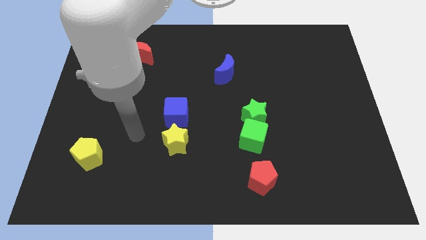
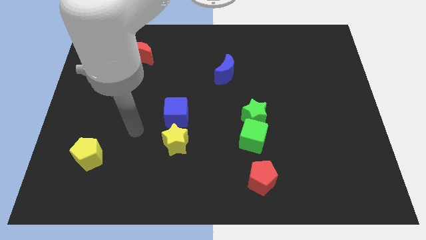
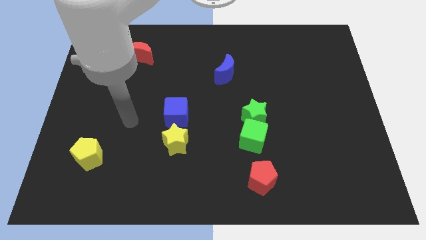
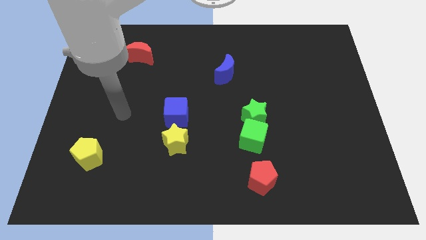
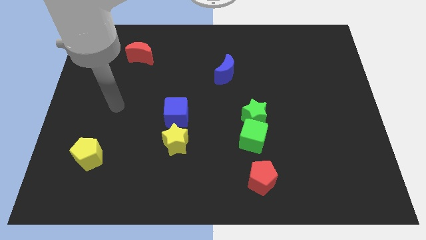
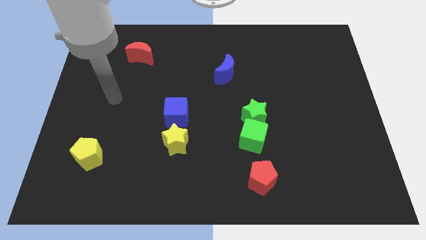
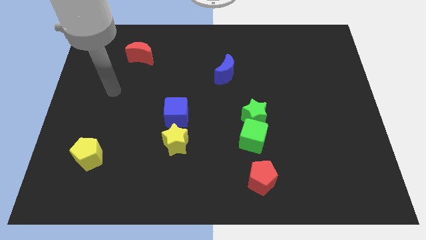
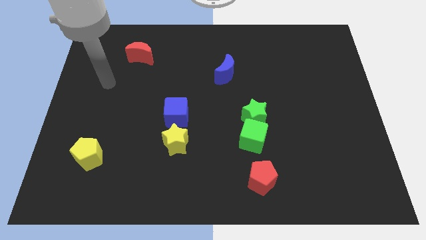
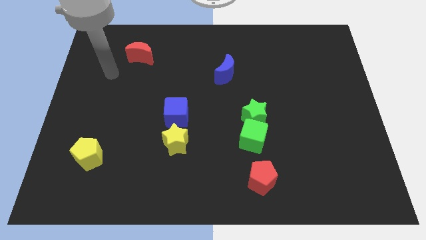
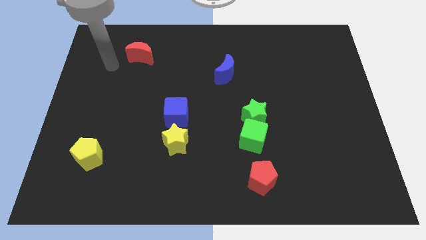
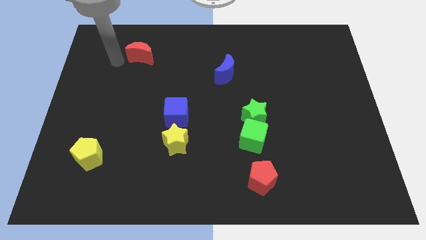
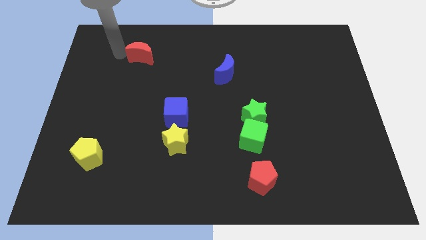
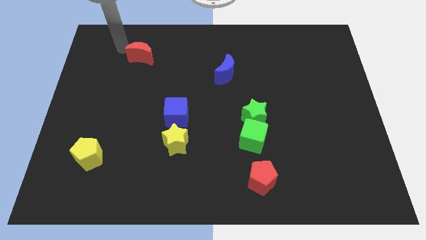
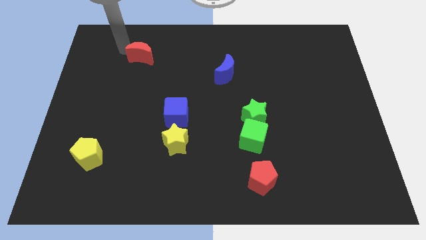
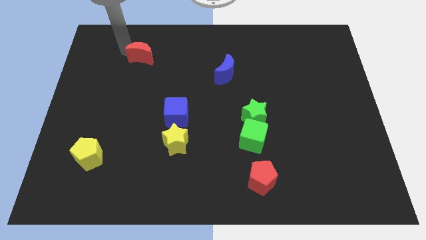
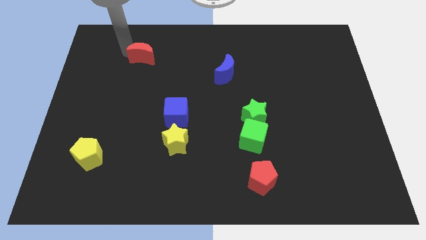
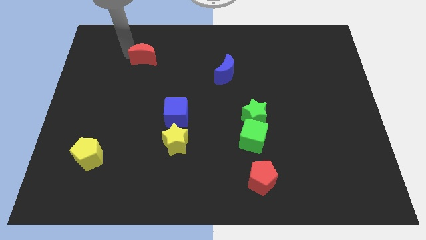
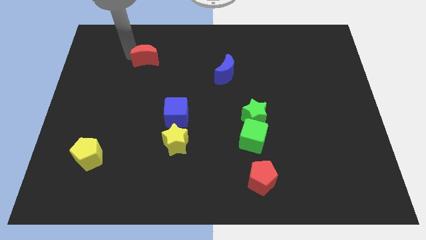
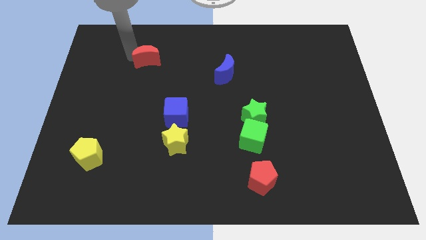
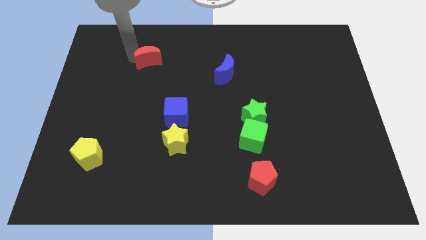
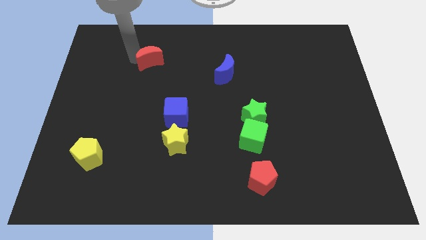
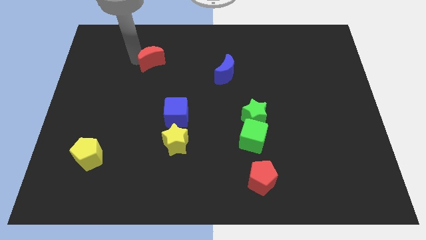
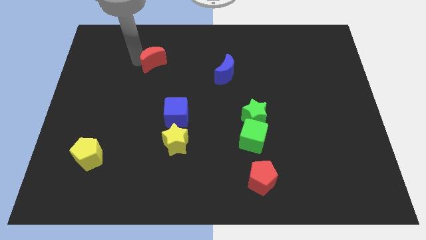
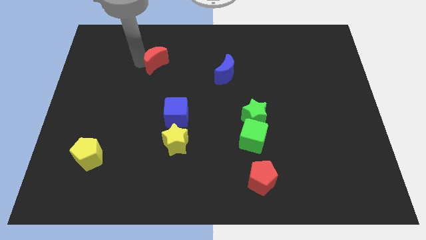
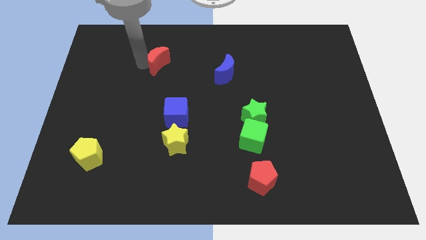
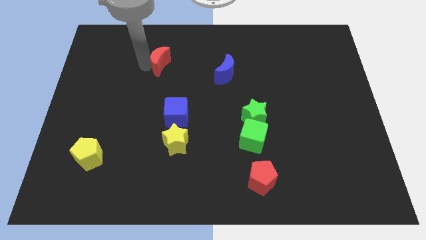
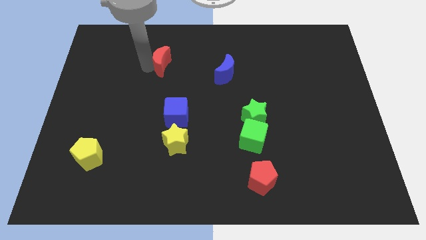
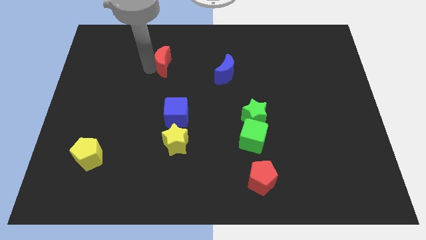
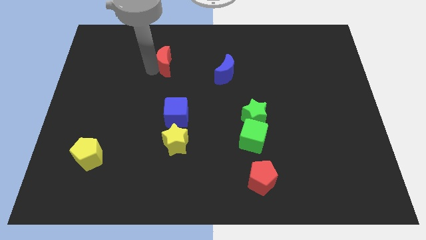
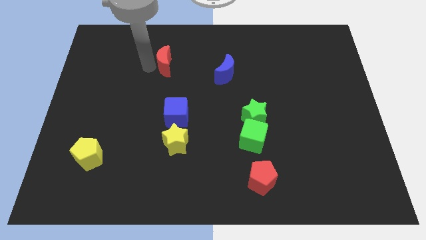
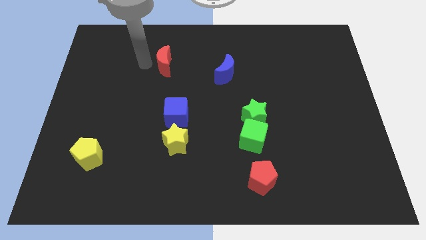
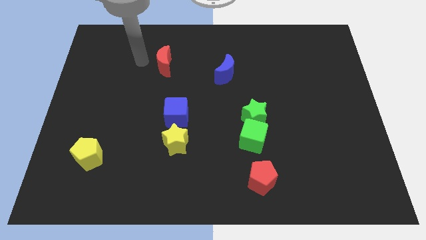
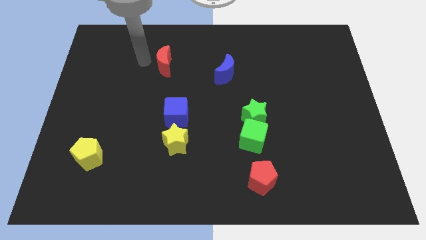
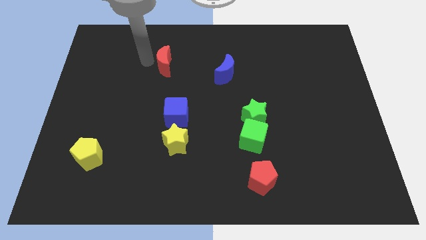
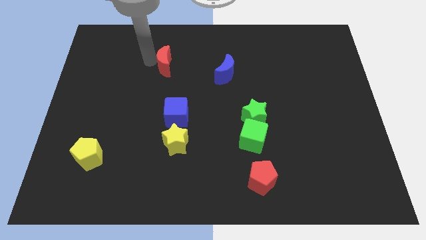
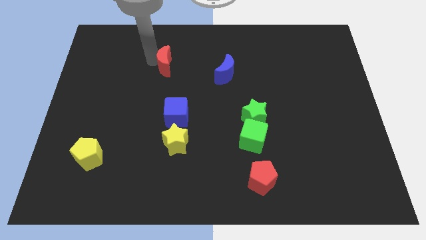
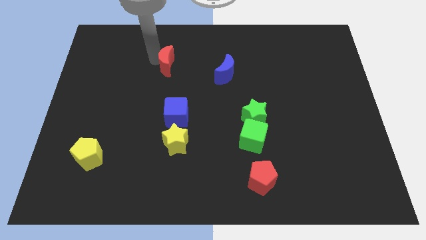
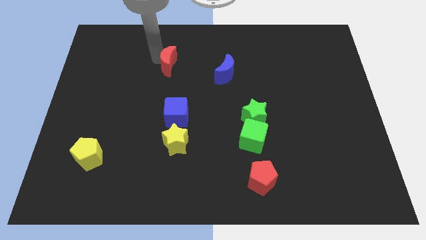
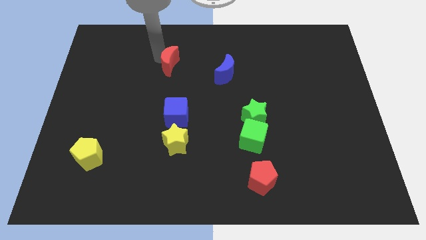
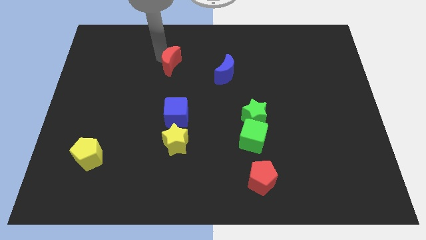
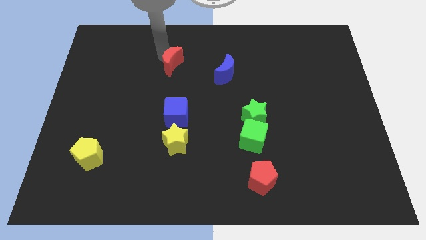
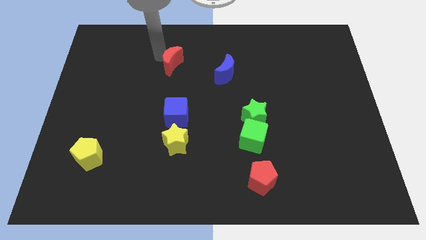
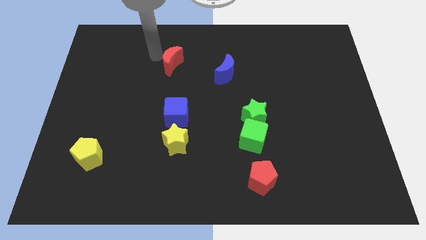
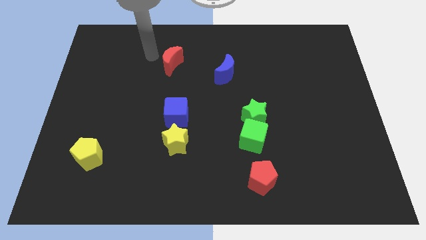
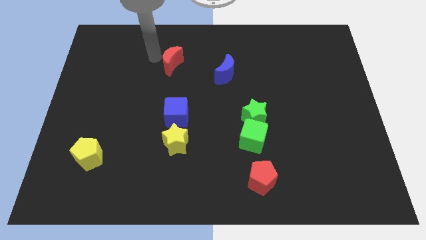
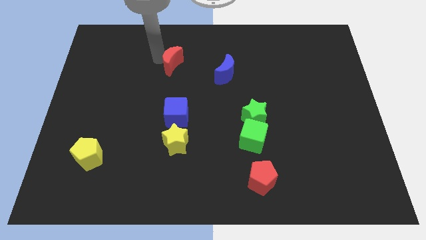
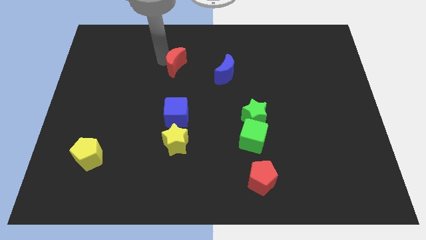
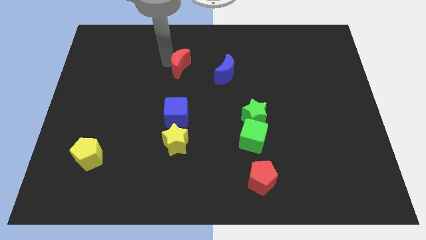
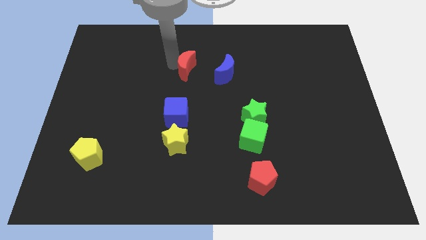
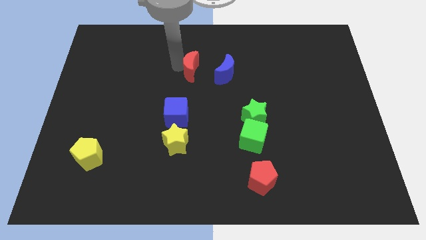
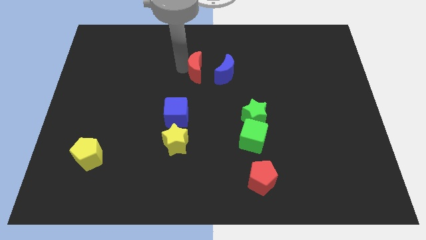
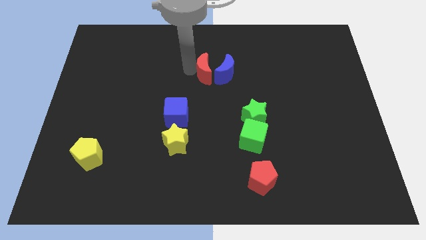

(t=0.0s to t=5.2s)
slide the red moon to the blue moon

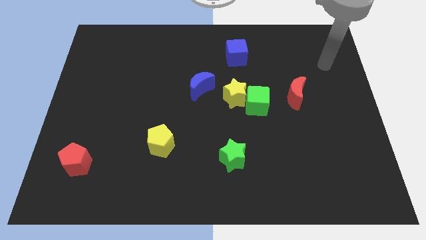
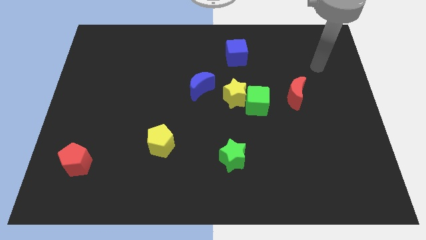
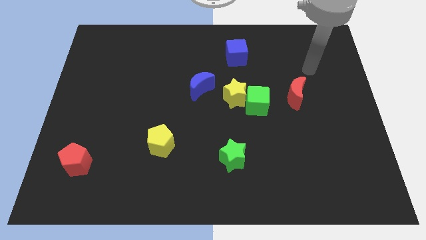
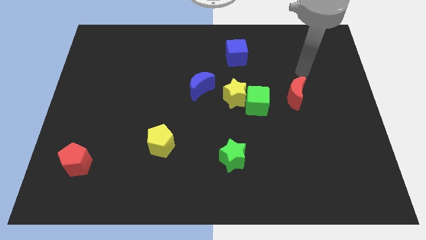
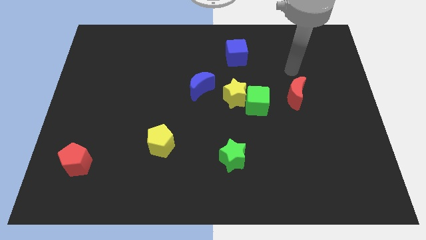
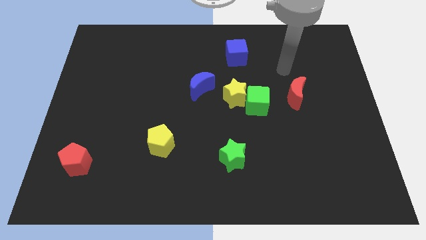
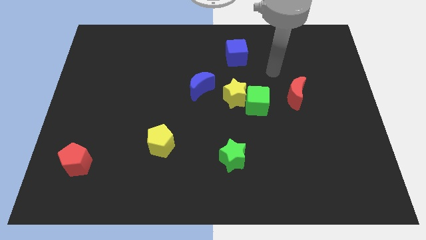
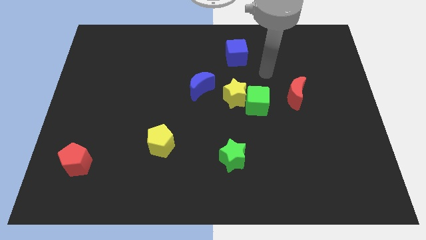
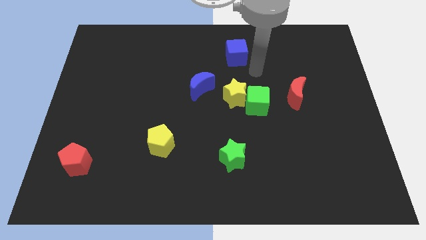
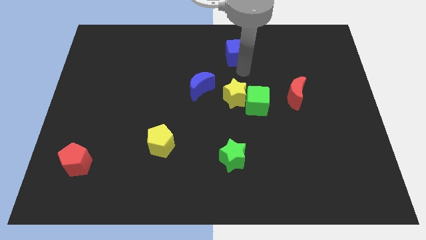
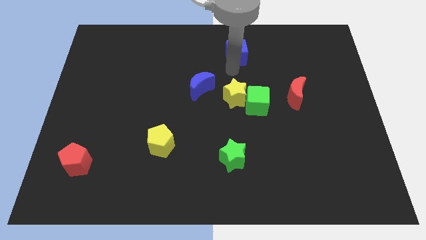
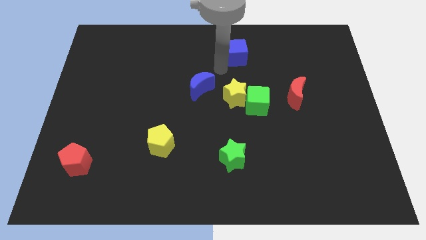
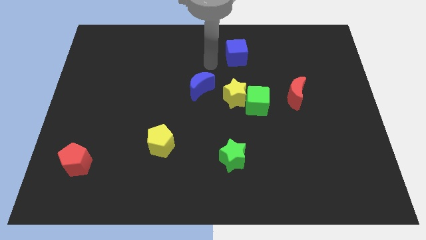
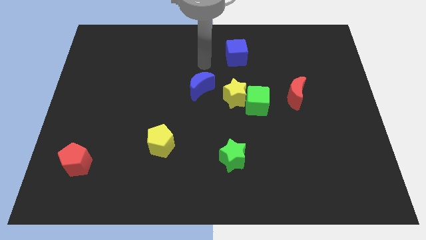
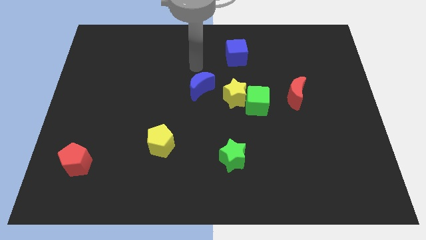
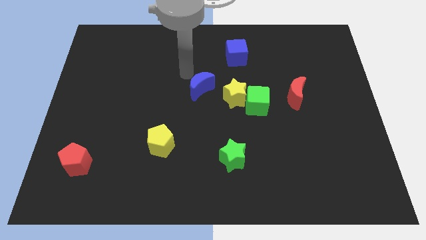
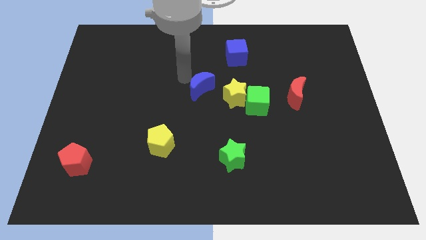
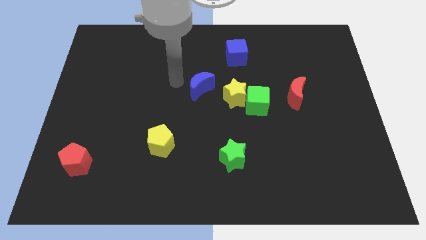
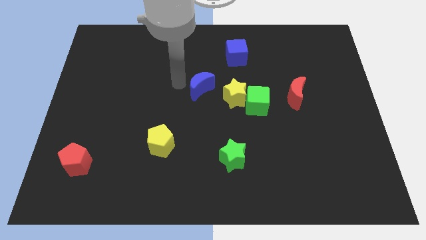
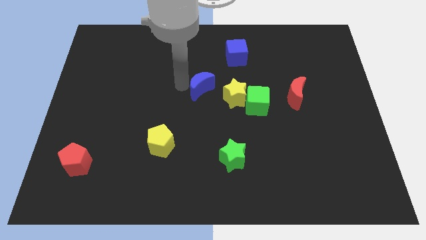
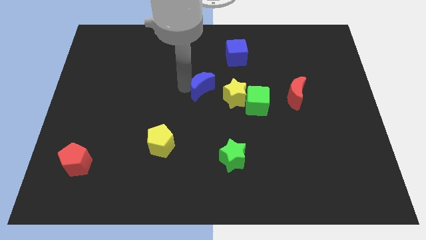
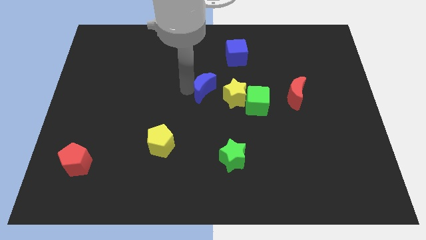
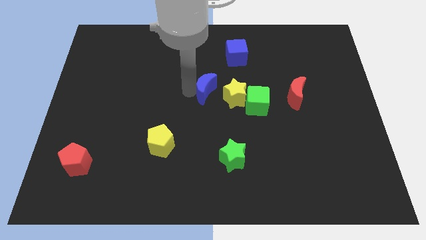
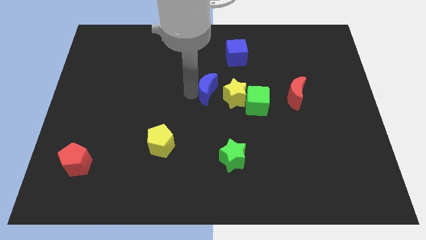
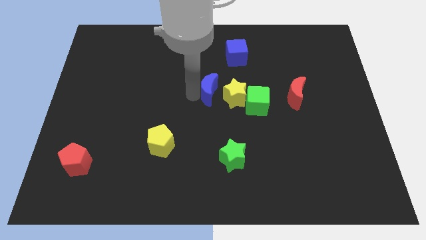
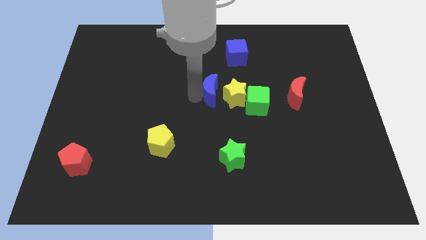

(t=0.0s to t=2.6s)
slide the blue moon to the yellow star
